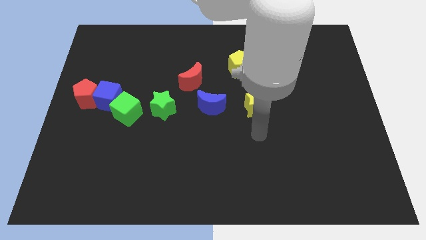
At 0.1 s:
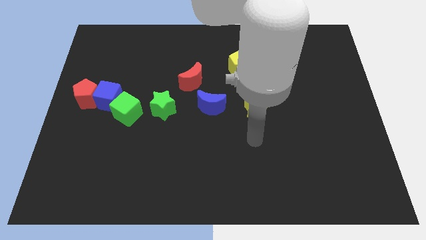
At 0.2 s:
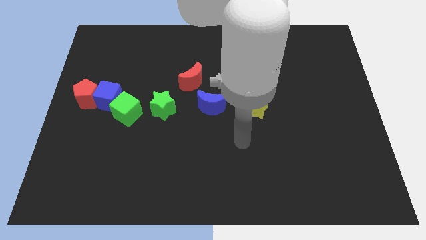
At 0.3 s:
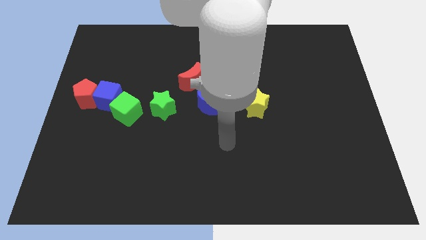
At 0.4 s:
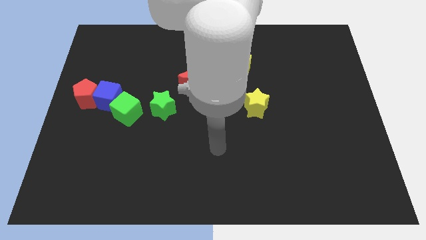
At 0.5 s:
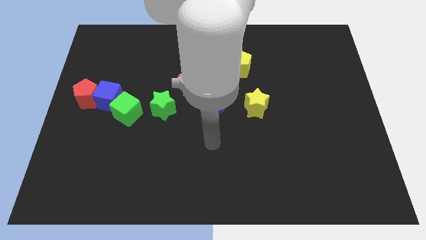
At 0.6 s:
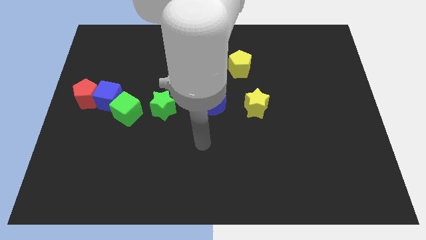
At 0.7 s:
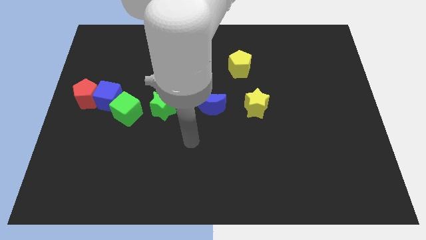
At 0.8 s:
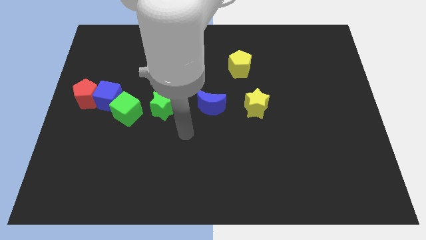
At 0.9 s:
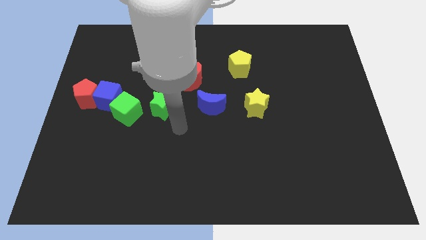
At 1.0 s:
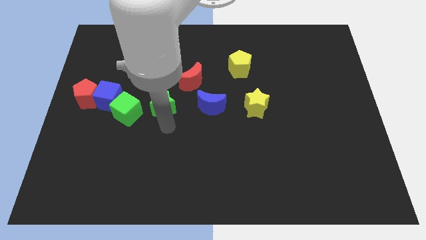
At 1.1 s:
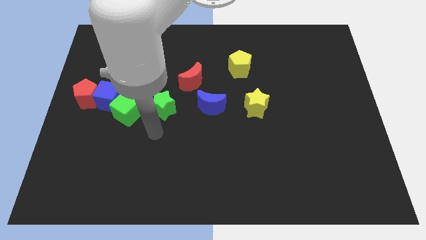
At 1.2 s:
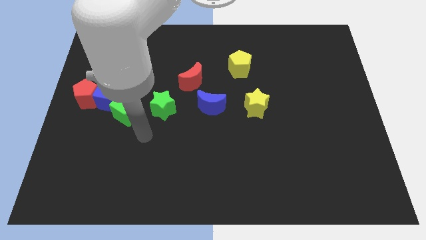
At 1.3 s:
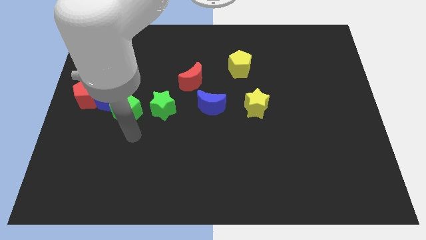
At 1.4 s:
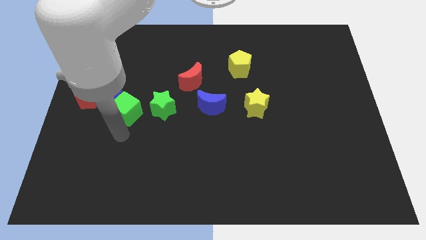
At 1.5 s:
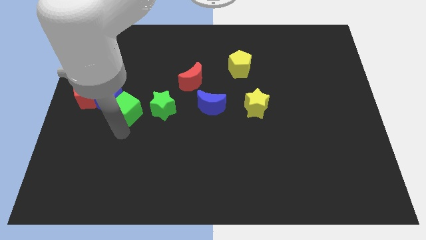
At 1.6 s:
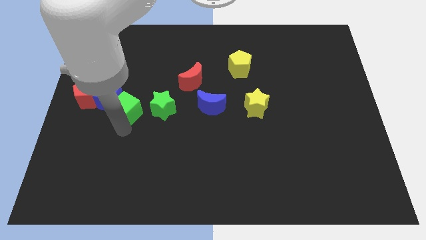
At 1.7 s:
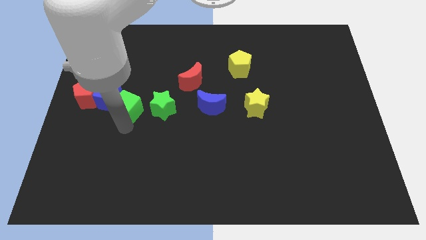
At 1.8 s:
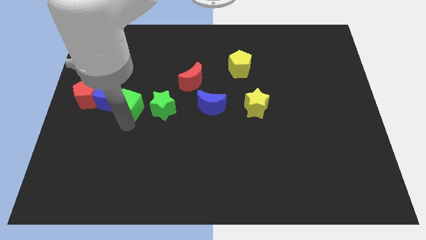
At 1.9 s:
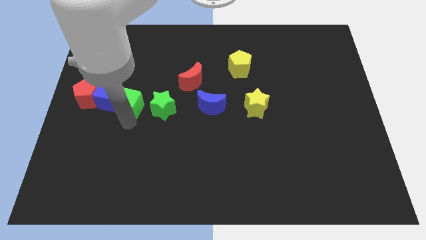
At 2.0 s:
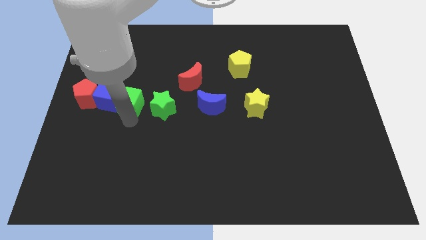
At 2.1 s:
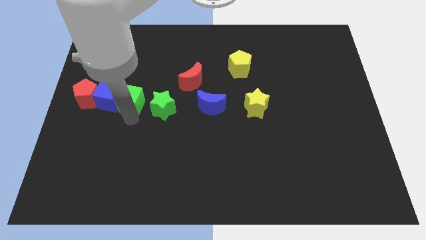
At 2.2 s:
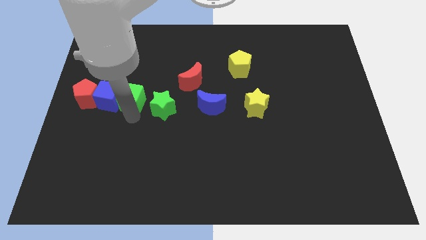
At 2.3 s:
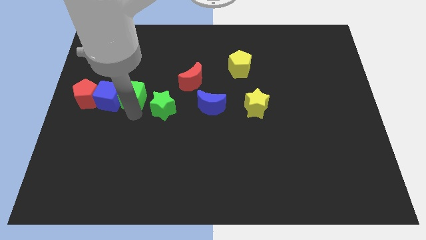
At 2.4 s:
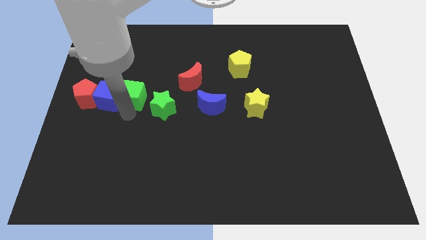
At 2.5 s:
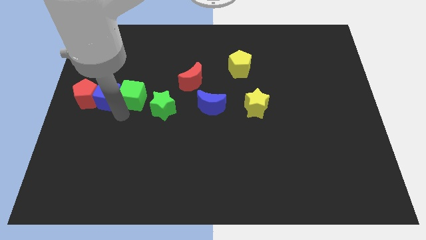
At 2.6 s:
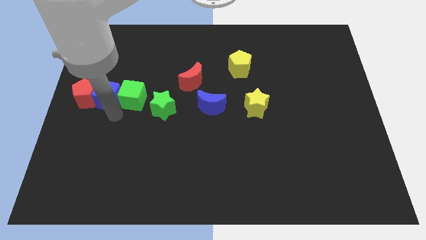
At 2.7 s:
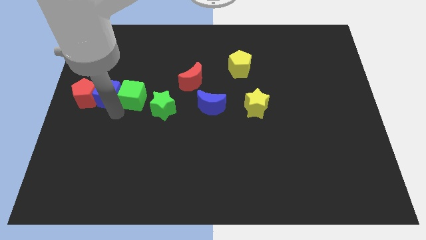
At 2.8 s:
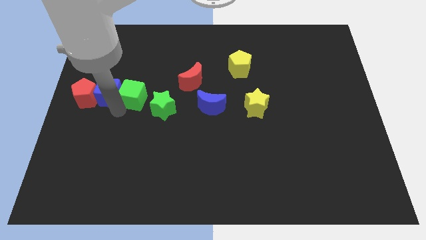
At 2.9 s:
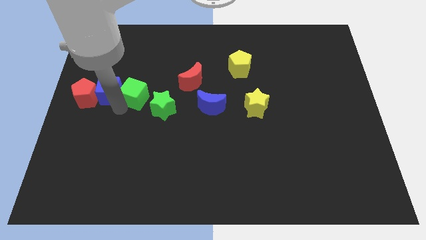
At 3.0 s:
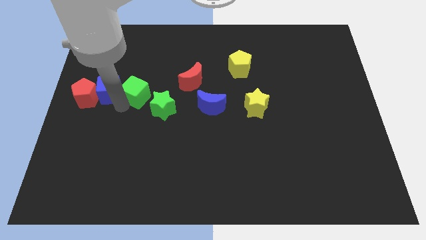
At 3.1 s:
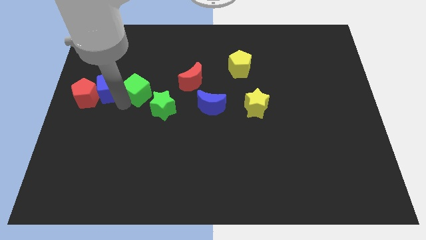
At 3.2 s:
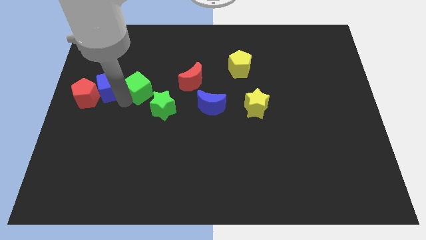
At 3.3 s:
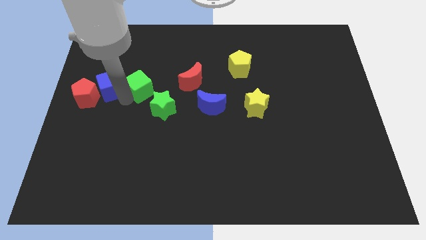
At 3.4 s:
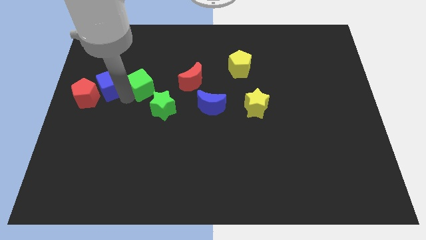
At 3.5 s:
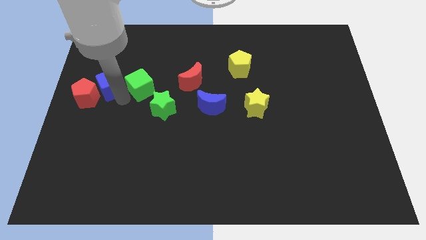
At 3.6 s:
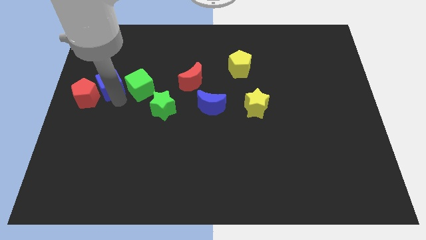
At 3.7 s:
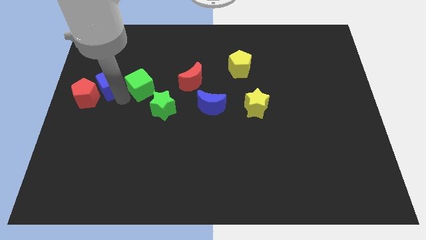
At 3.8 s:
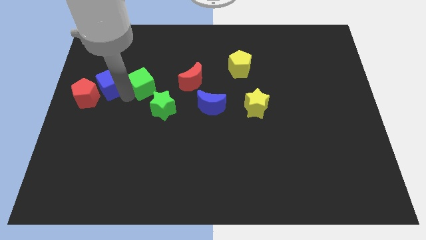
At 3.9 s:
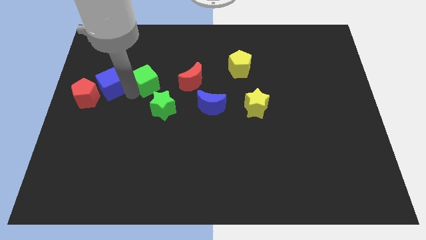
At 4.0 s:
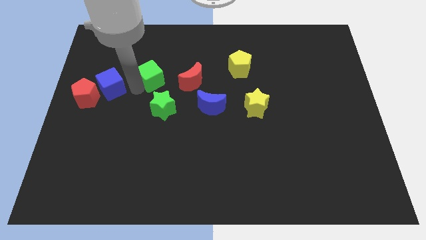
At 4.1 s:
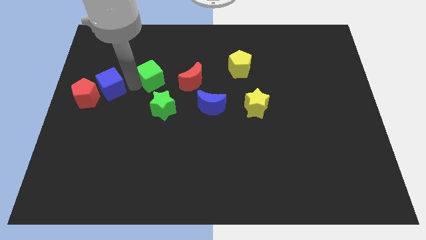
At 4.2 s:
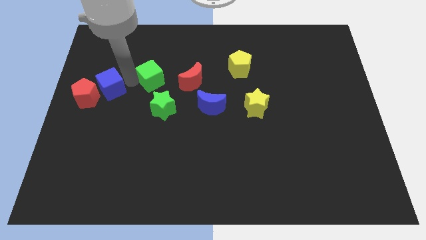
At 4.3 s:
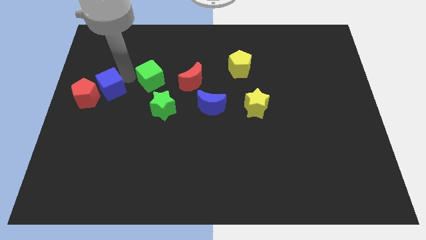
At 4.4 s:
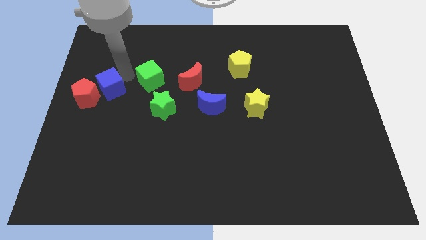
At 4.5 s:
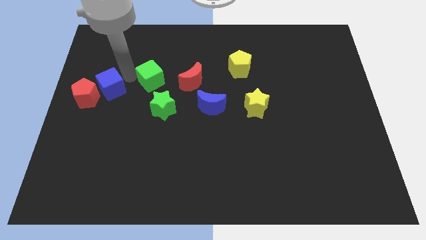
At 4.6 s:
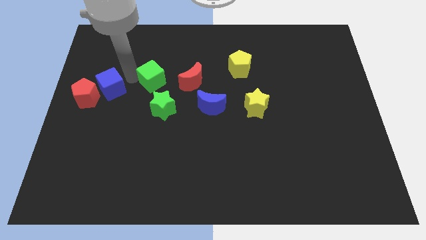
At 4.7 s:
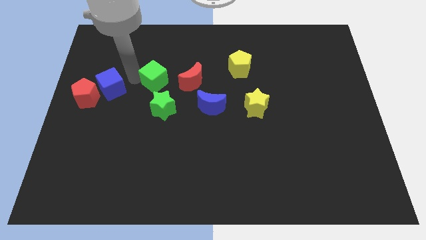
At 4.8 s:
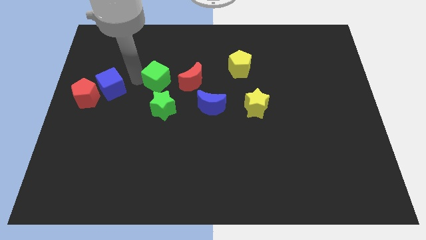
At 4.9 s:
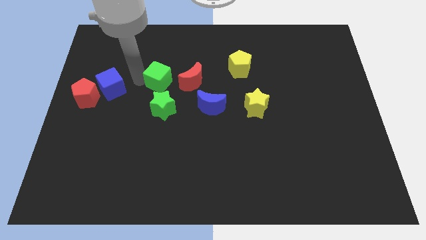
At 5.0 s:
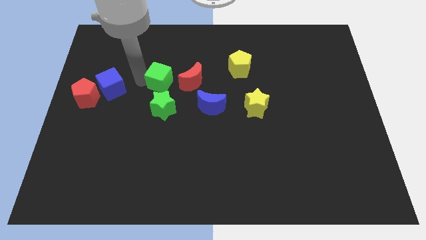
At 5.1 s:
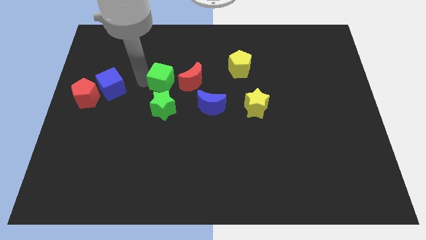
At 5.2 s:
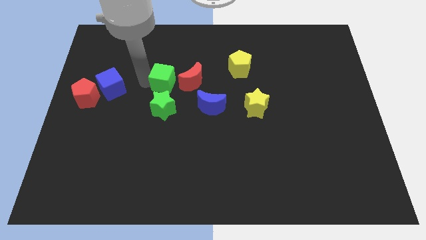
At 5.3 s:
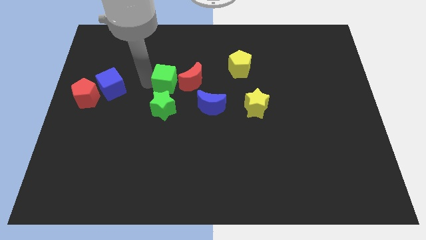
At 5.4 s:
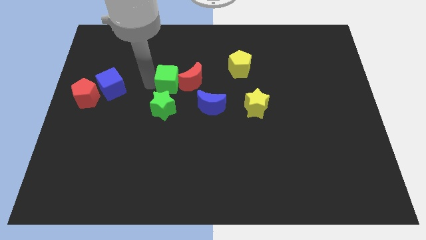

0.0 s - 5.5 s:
move the green cube to the red moon

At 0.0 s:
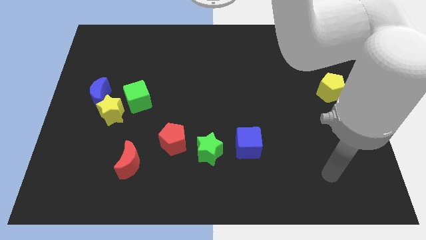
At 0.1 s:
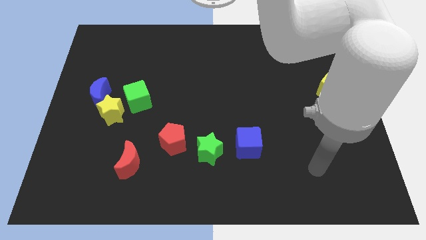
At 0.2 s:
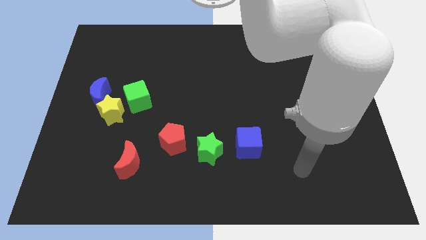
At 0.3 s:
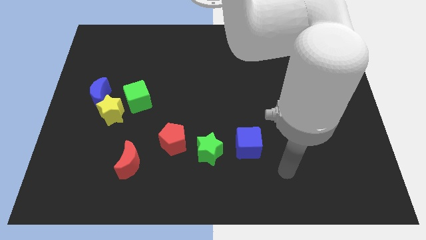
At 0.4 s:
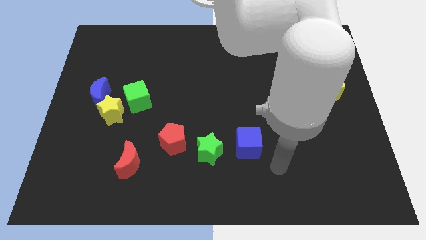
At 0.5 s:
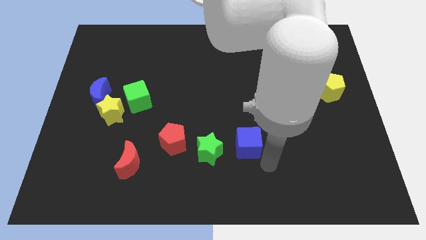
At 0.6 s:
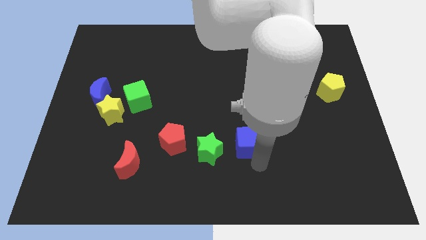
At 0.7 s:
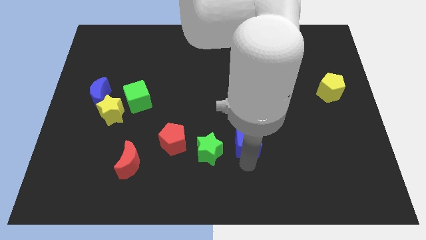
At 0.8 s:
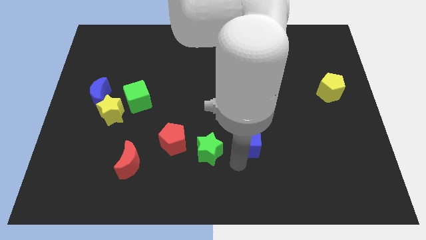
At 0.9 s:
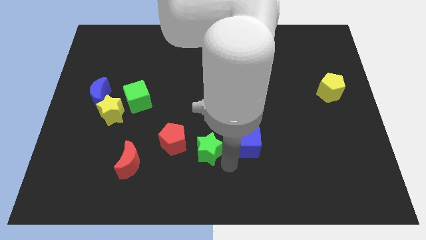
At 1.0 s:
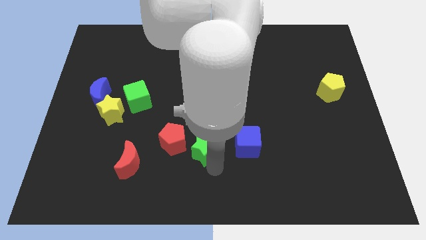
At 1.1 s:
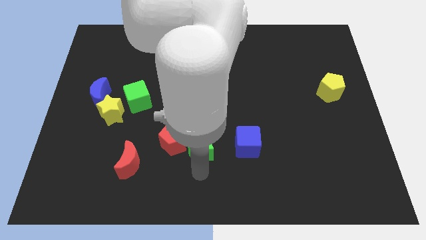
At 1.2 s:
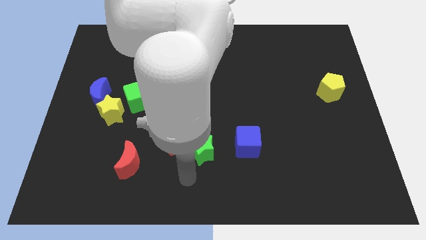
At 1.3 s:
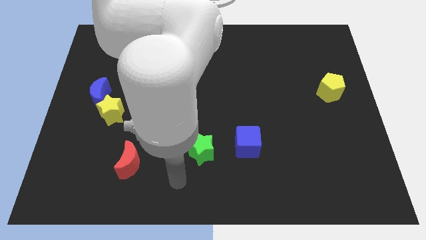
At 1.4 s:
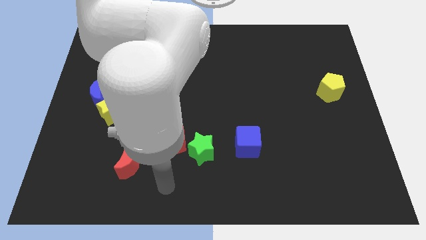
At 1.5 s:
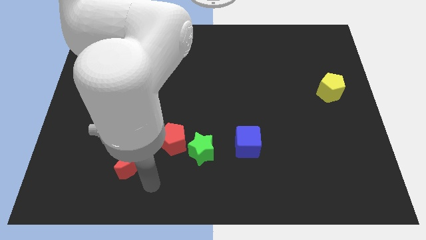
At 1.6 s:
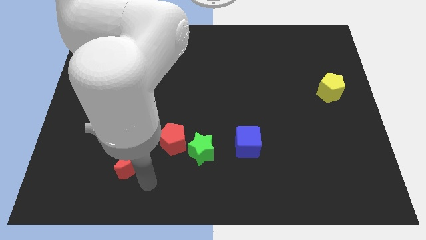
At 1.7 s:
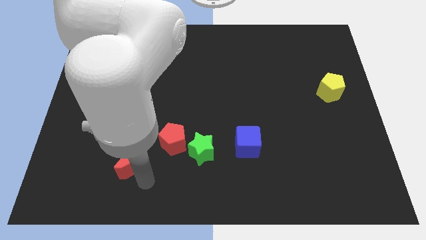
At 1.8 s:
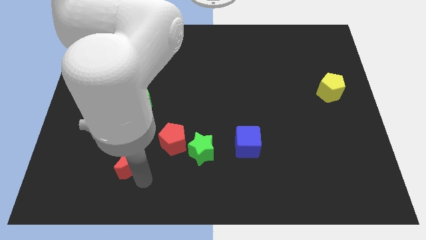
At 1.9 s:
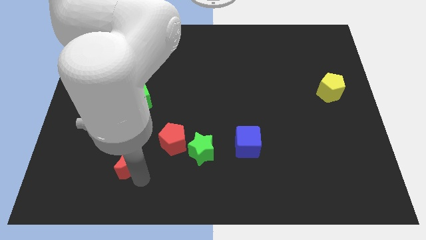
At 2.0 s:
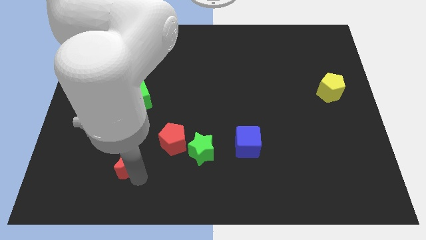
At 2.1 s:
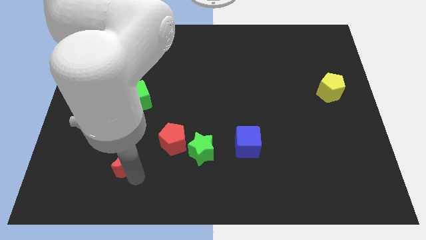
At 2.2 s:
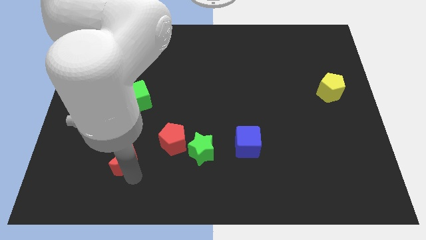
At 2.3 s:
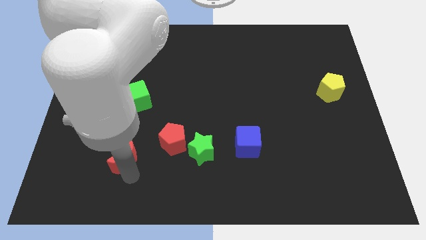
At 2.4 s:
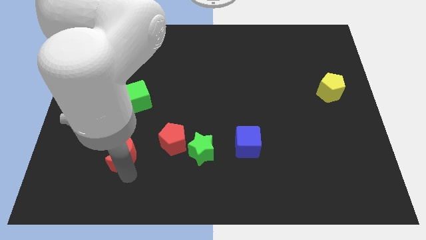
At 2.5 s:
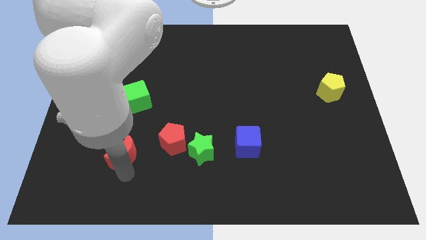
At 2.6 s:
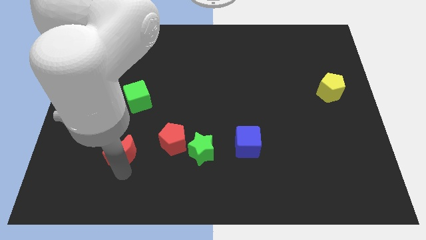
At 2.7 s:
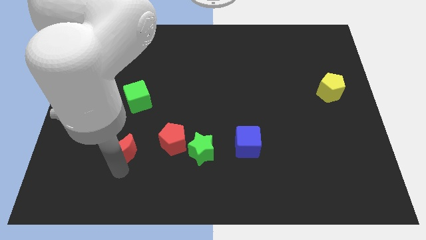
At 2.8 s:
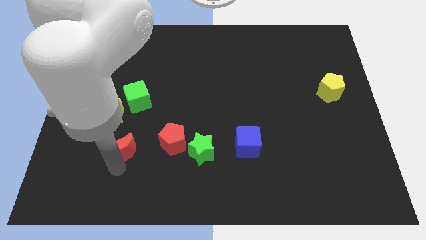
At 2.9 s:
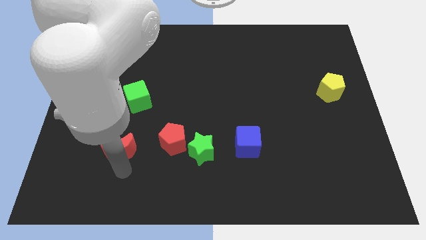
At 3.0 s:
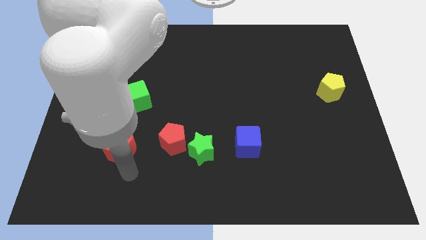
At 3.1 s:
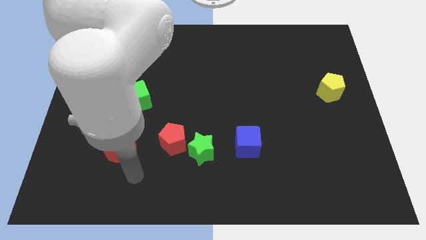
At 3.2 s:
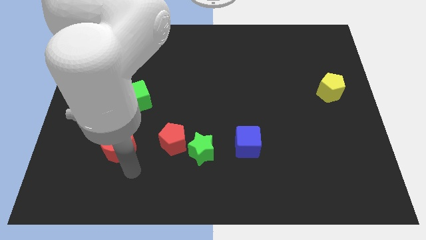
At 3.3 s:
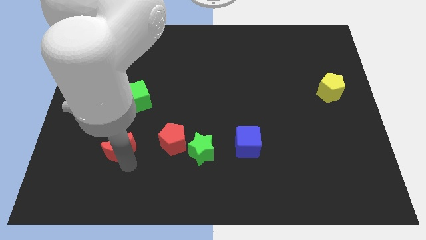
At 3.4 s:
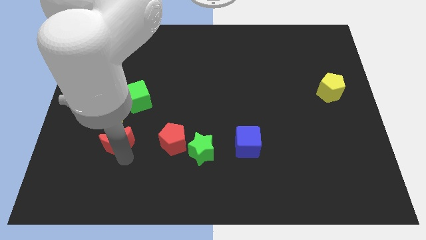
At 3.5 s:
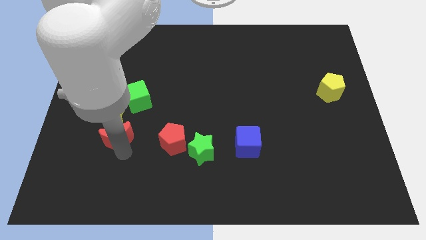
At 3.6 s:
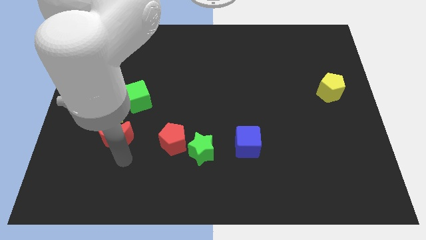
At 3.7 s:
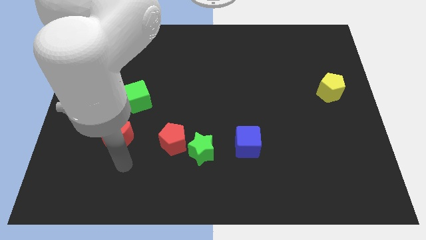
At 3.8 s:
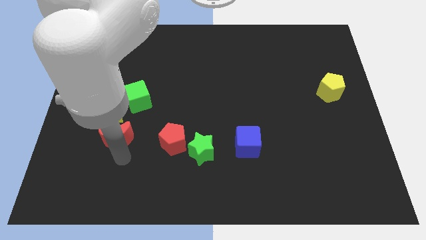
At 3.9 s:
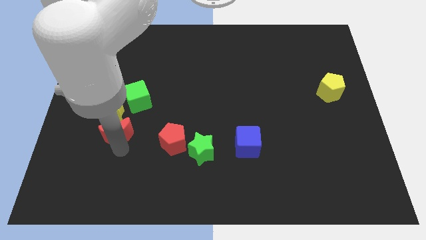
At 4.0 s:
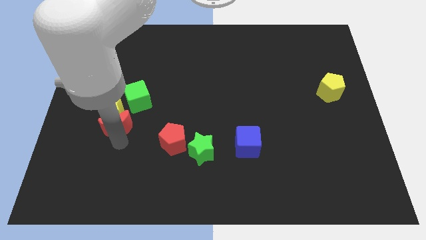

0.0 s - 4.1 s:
put the red moon next to the yellow star
